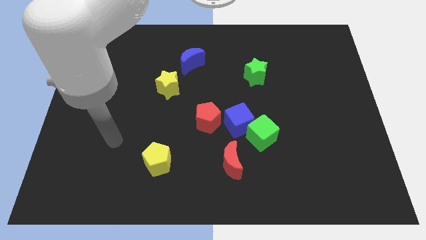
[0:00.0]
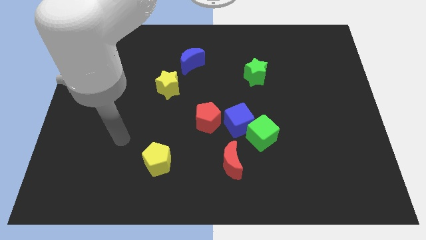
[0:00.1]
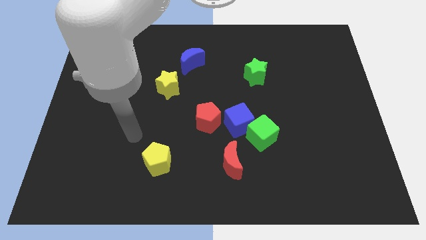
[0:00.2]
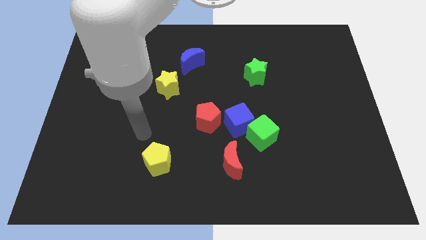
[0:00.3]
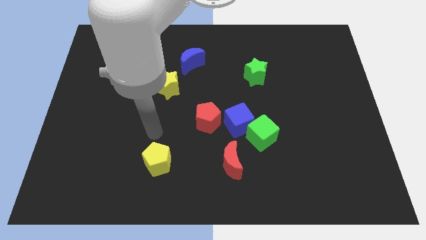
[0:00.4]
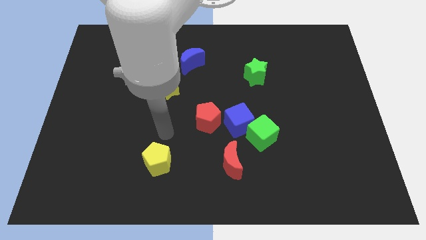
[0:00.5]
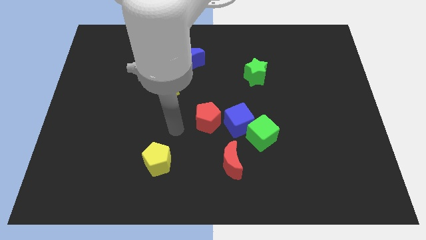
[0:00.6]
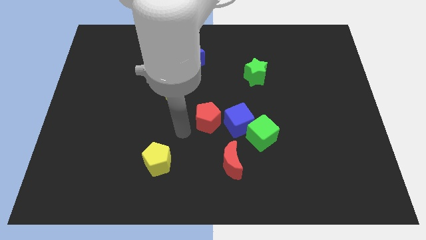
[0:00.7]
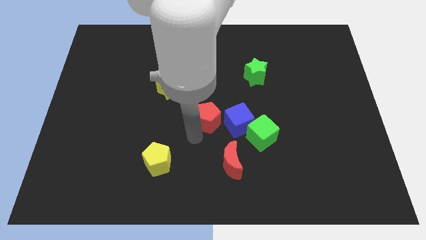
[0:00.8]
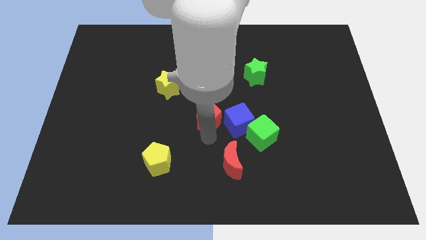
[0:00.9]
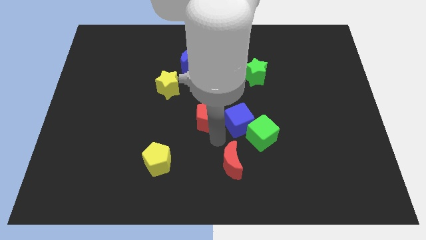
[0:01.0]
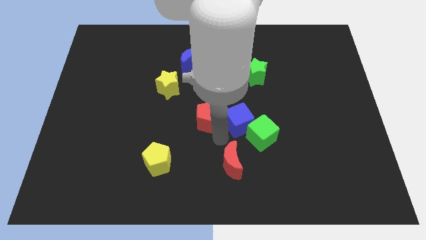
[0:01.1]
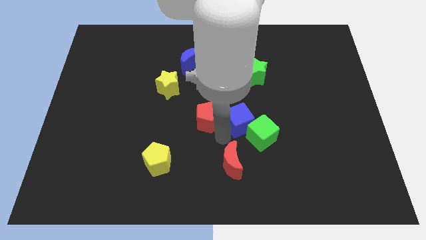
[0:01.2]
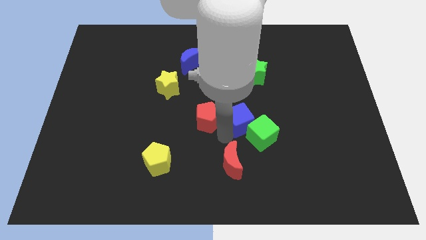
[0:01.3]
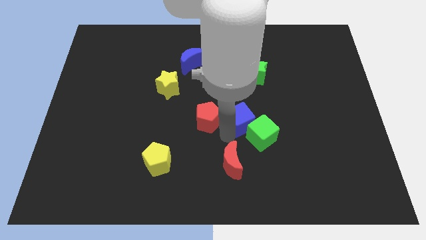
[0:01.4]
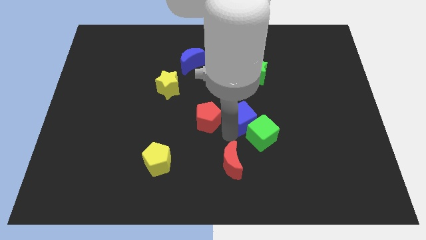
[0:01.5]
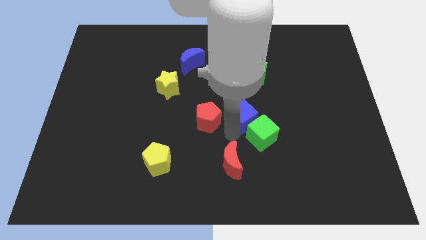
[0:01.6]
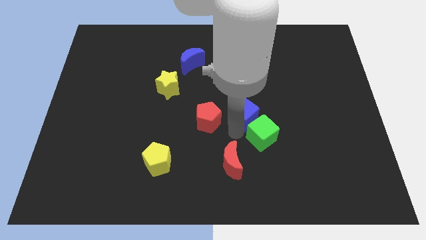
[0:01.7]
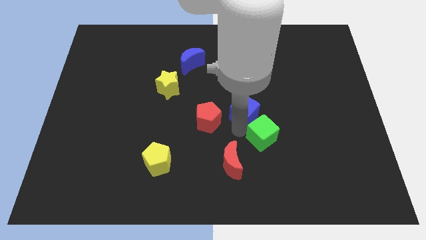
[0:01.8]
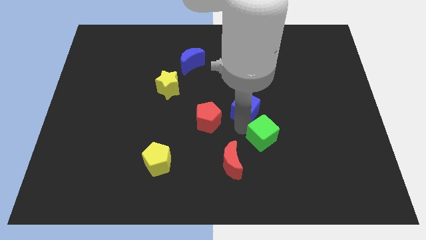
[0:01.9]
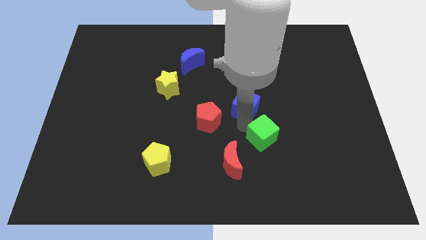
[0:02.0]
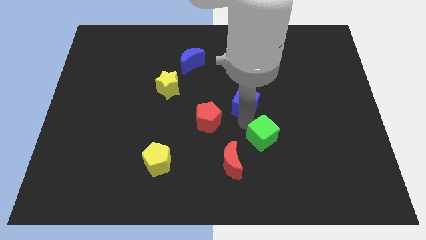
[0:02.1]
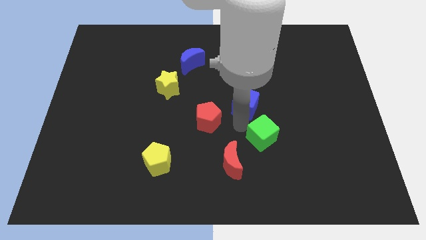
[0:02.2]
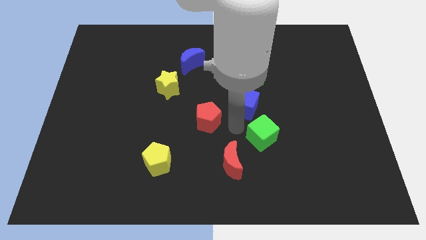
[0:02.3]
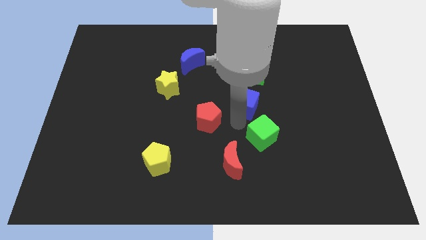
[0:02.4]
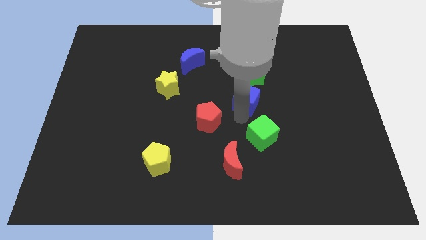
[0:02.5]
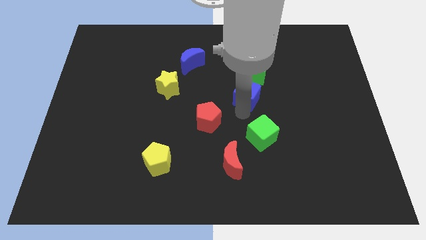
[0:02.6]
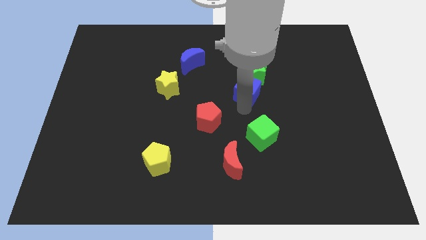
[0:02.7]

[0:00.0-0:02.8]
move the blue cube away from the green cube and red pentagon

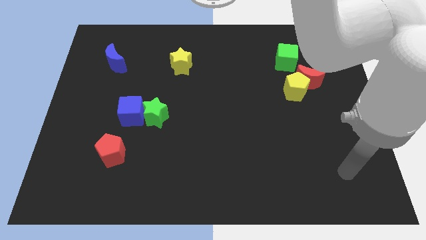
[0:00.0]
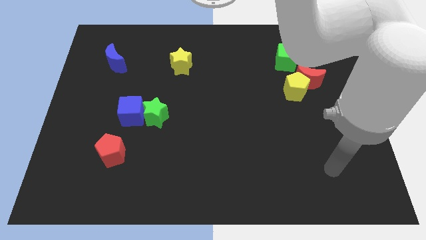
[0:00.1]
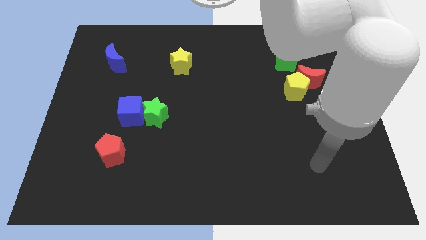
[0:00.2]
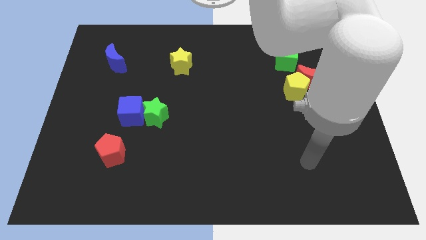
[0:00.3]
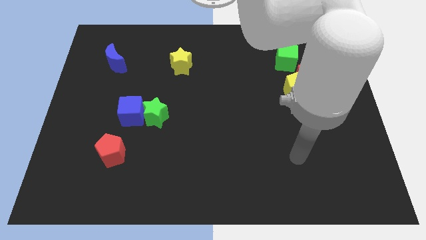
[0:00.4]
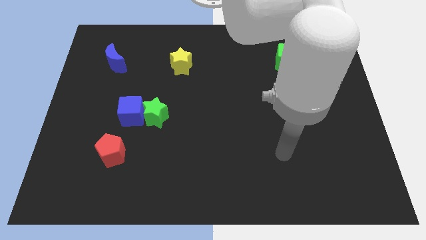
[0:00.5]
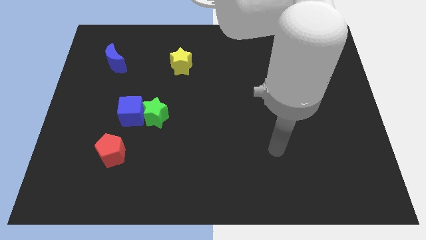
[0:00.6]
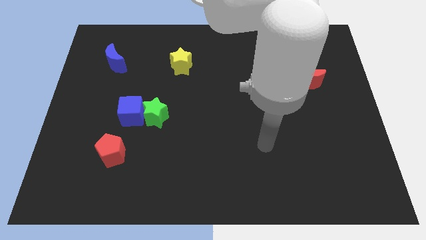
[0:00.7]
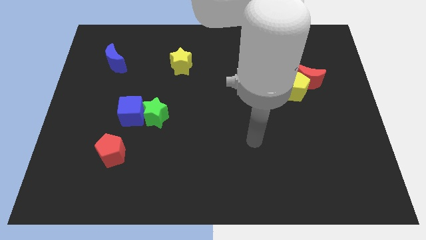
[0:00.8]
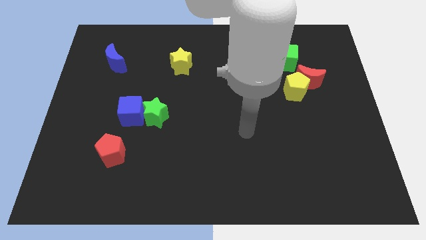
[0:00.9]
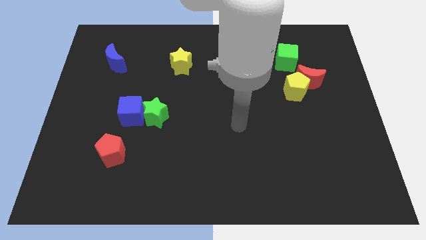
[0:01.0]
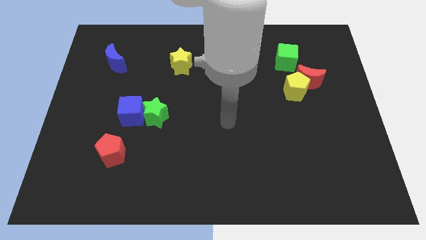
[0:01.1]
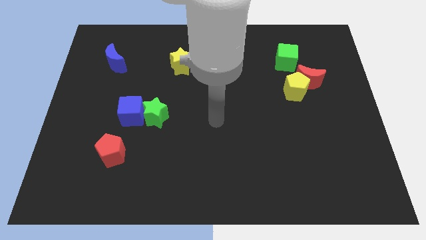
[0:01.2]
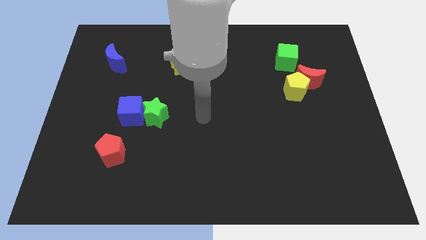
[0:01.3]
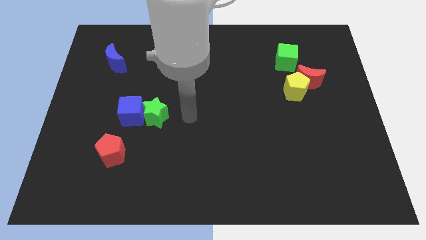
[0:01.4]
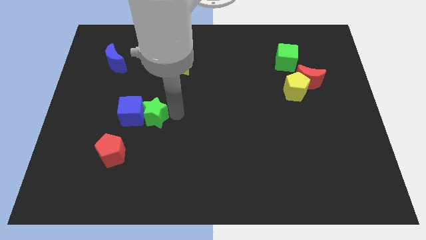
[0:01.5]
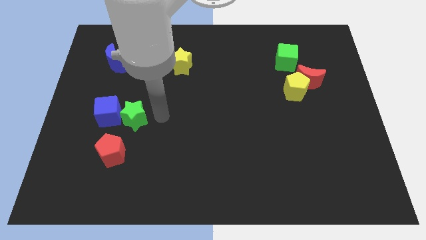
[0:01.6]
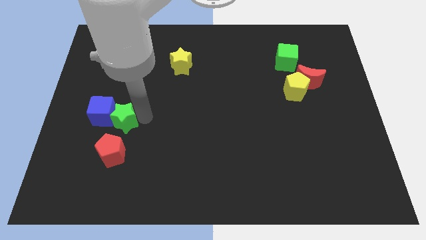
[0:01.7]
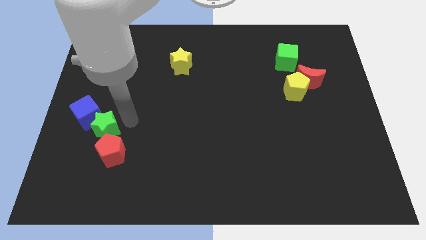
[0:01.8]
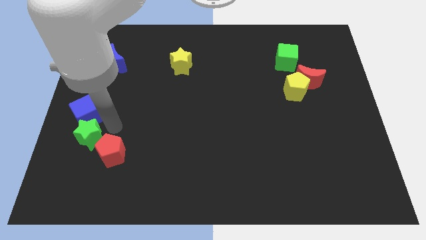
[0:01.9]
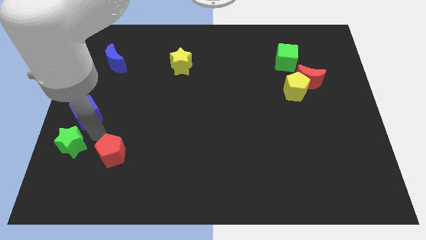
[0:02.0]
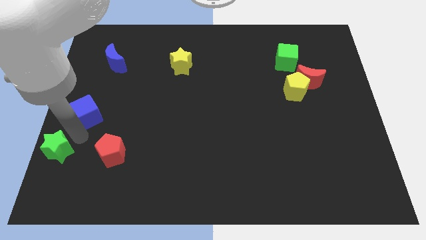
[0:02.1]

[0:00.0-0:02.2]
separate the blue cube from the green star

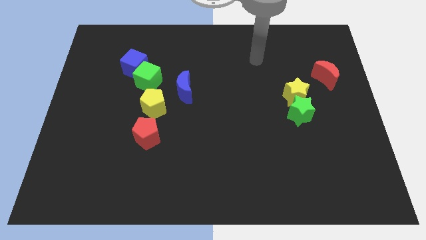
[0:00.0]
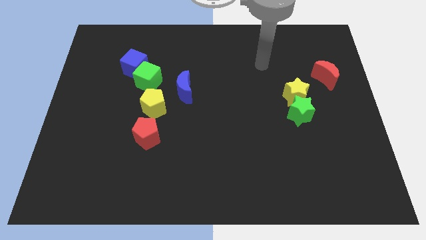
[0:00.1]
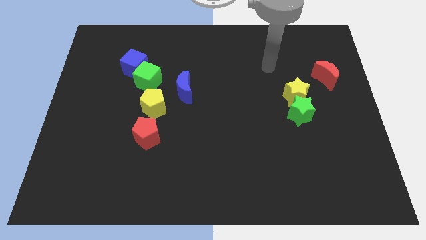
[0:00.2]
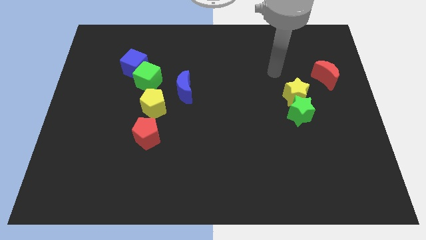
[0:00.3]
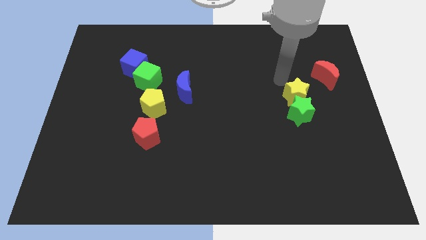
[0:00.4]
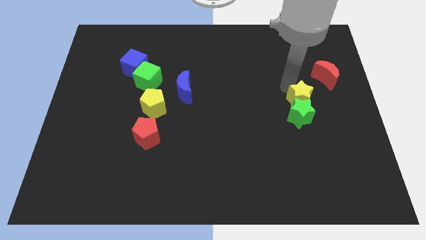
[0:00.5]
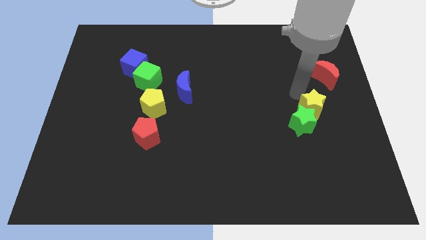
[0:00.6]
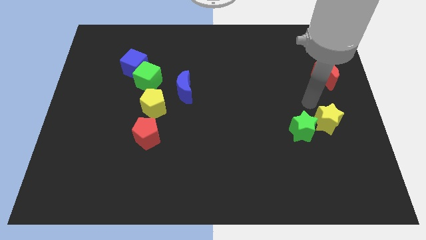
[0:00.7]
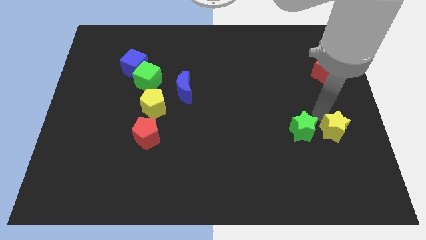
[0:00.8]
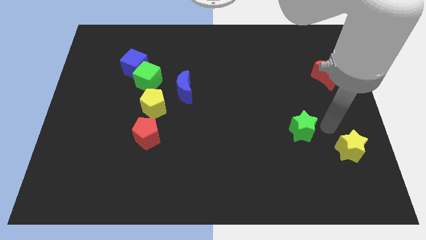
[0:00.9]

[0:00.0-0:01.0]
move the green star away from the yellow star

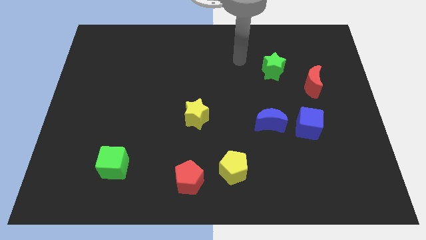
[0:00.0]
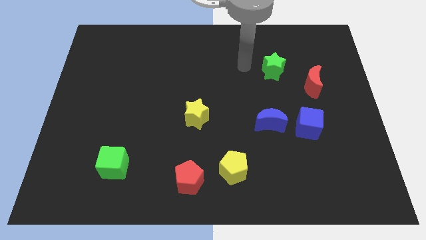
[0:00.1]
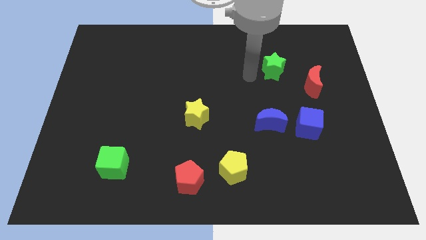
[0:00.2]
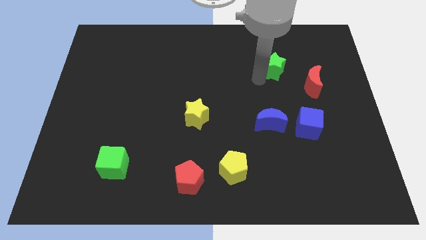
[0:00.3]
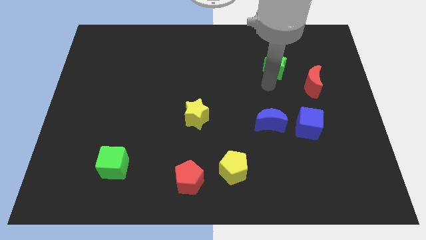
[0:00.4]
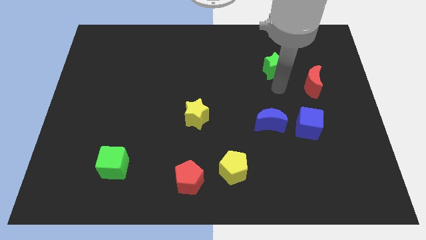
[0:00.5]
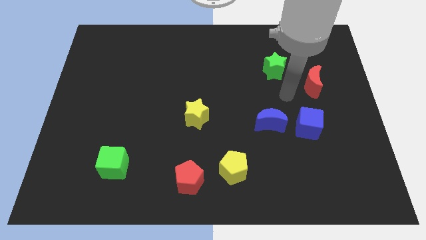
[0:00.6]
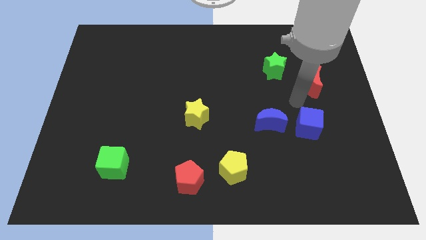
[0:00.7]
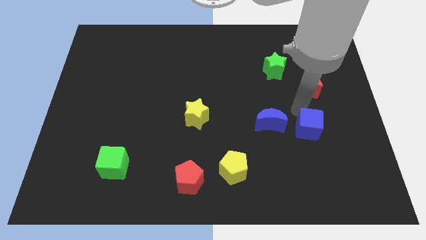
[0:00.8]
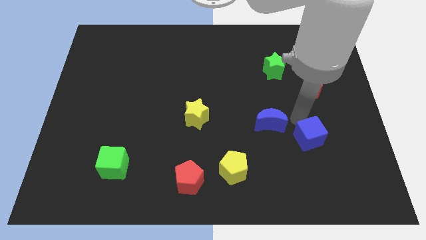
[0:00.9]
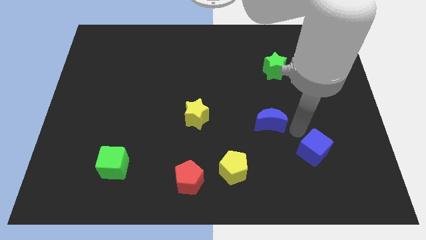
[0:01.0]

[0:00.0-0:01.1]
pull the blue moon apart from the blue cube

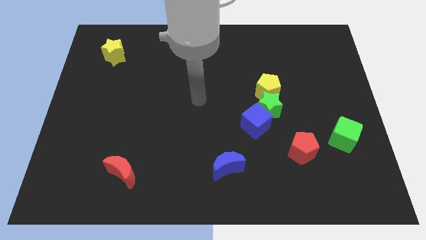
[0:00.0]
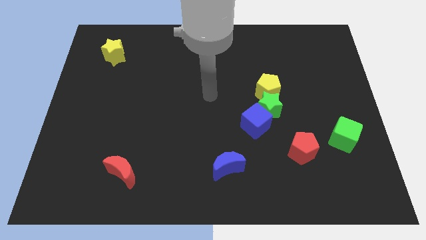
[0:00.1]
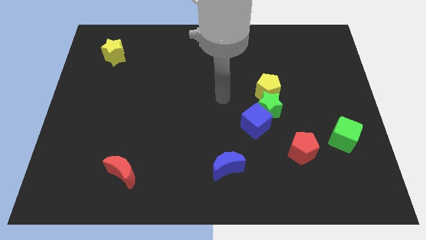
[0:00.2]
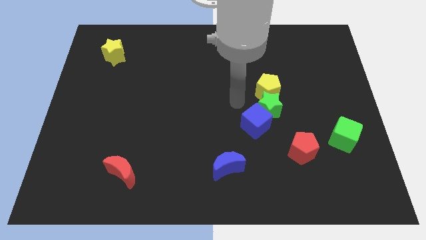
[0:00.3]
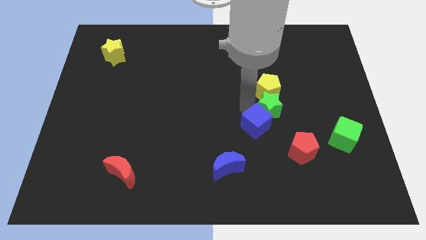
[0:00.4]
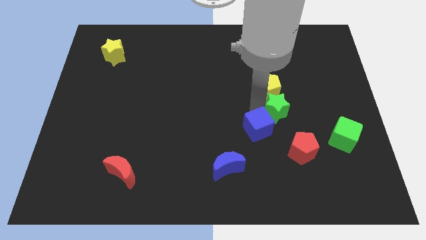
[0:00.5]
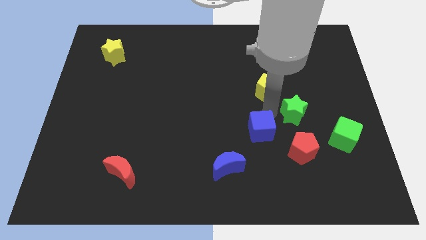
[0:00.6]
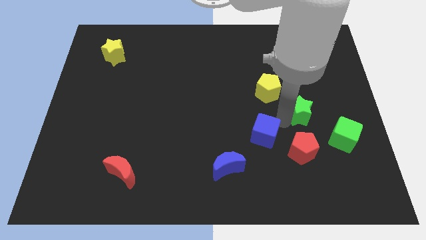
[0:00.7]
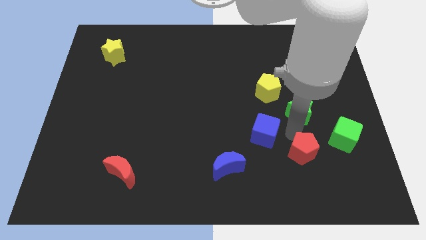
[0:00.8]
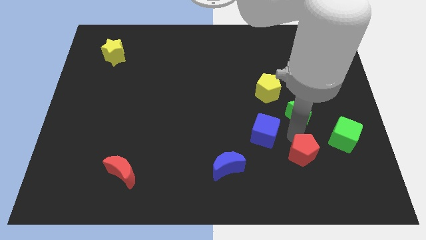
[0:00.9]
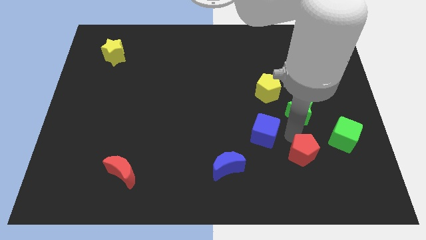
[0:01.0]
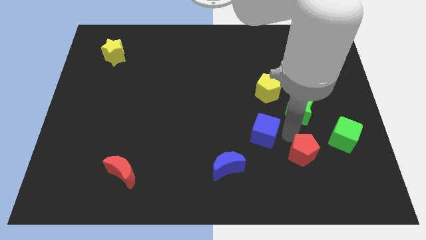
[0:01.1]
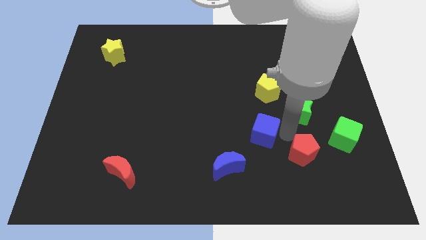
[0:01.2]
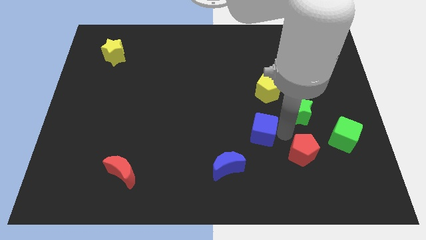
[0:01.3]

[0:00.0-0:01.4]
move the blue cube away from the green star

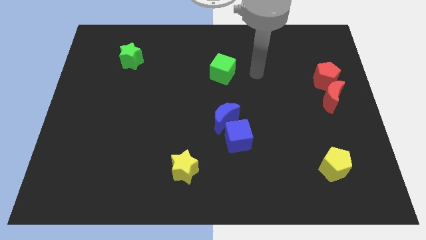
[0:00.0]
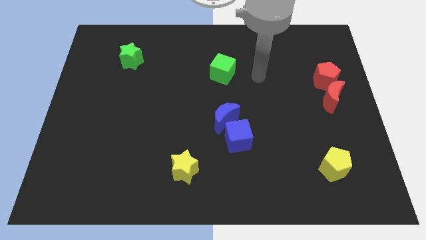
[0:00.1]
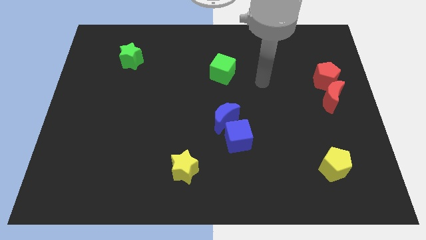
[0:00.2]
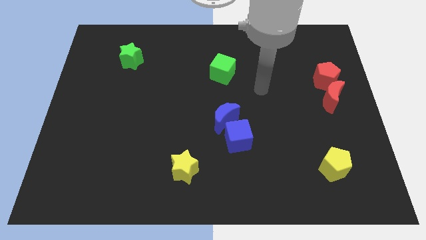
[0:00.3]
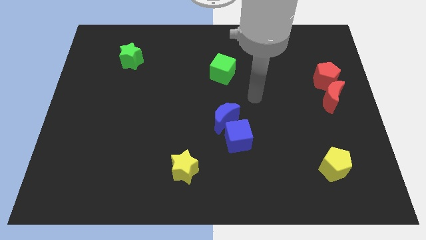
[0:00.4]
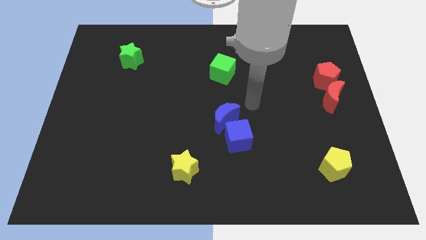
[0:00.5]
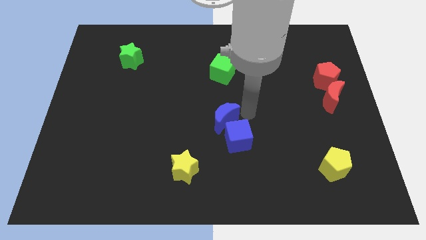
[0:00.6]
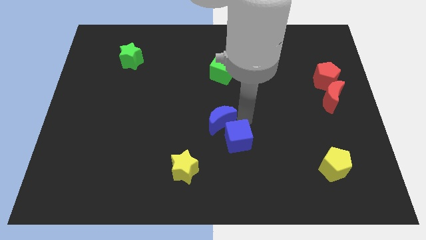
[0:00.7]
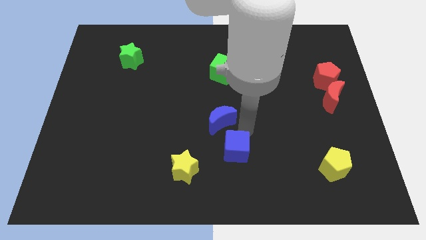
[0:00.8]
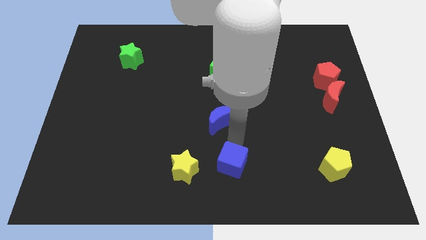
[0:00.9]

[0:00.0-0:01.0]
separate the blue moon from the blue cube
